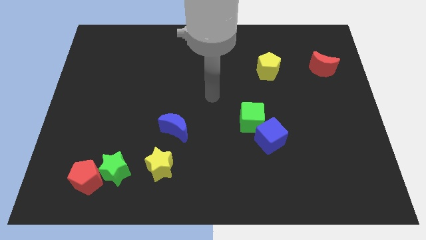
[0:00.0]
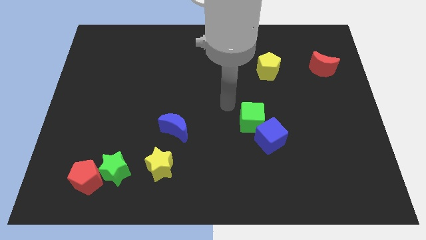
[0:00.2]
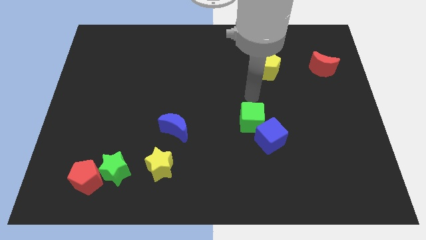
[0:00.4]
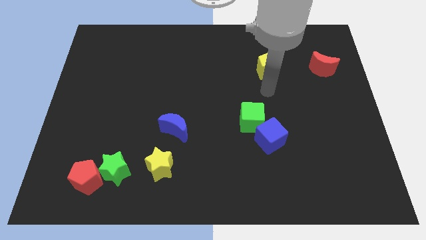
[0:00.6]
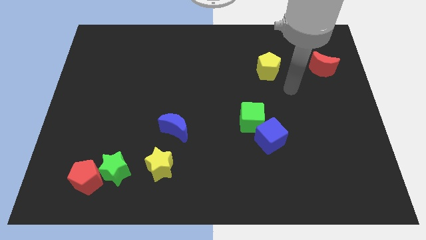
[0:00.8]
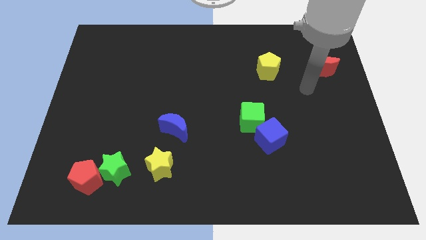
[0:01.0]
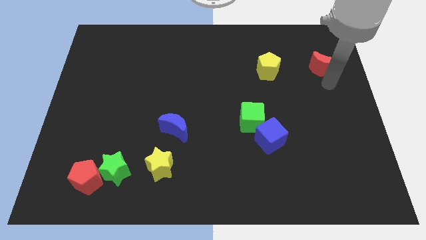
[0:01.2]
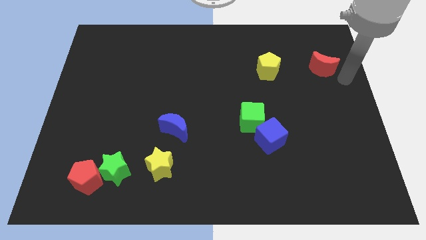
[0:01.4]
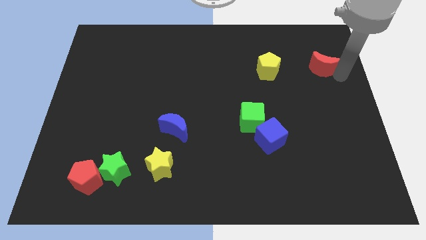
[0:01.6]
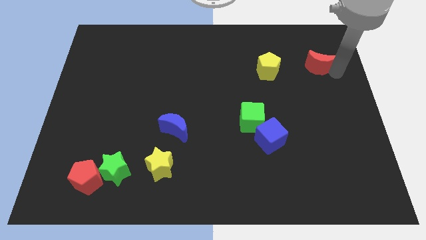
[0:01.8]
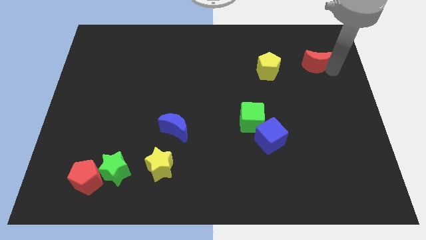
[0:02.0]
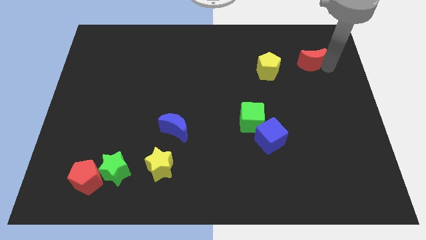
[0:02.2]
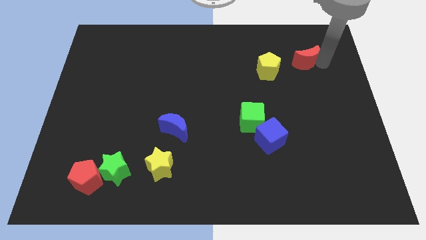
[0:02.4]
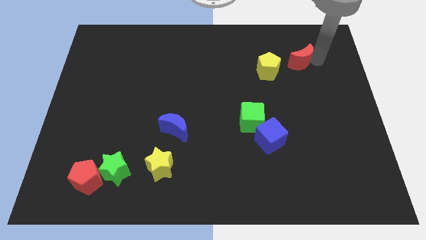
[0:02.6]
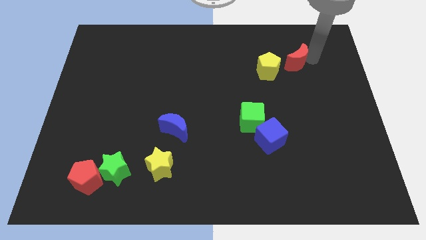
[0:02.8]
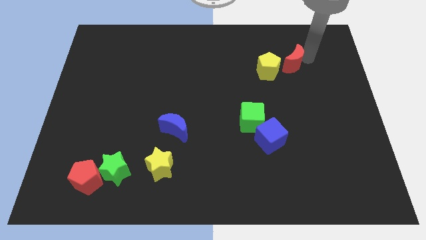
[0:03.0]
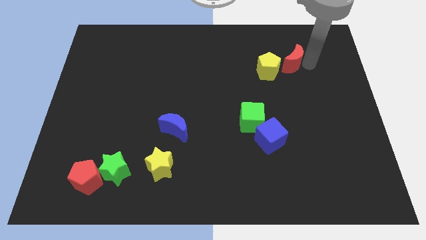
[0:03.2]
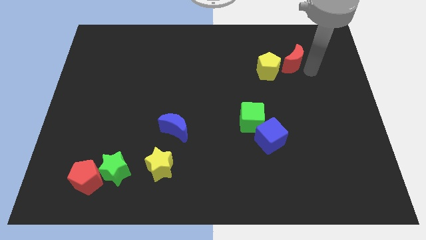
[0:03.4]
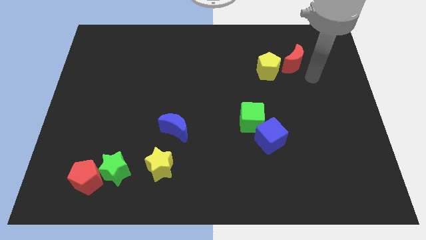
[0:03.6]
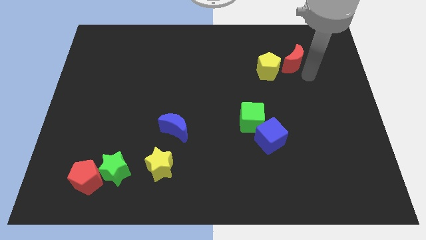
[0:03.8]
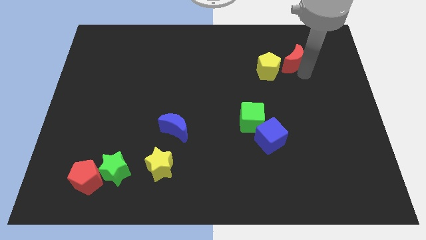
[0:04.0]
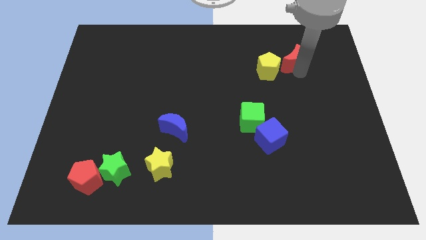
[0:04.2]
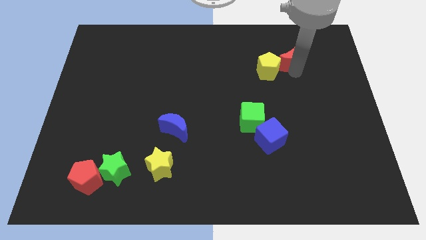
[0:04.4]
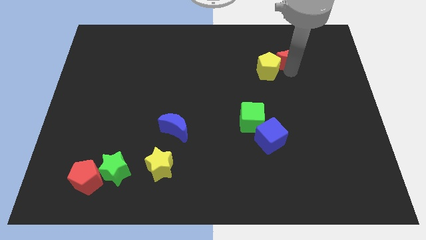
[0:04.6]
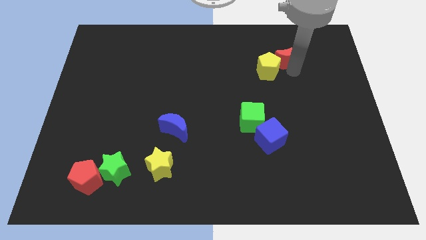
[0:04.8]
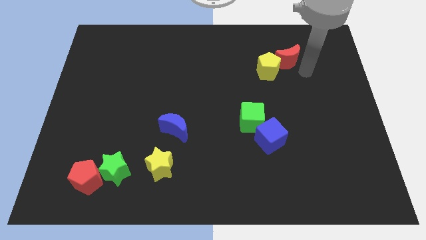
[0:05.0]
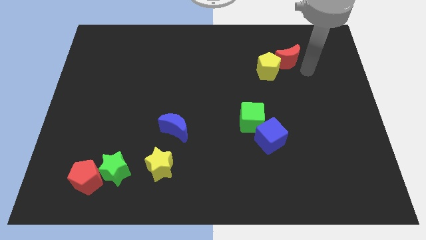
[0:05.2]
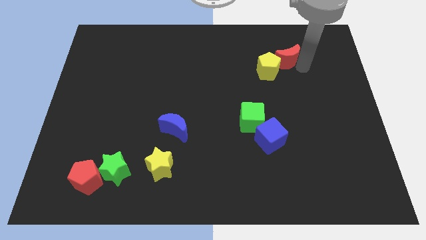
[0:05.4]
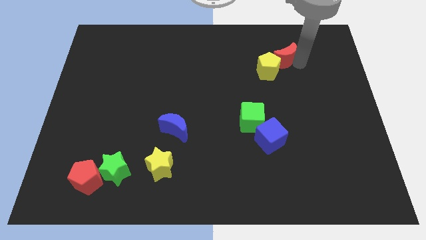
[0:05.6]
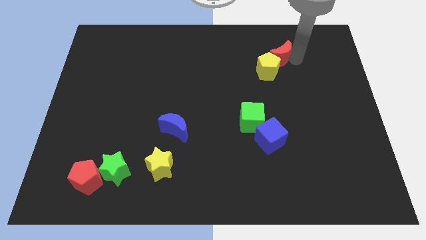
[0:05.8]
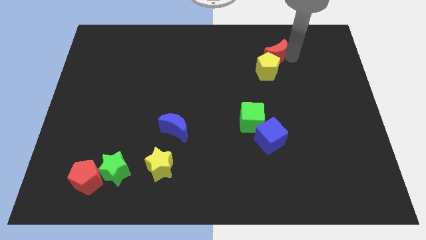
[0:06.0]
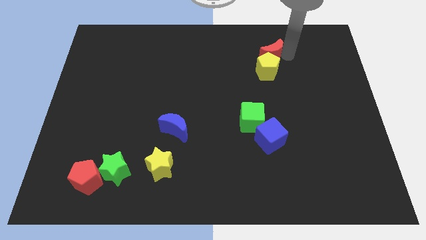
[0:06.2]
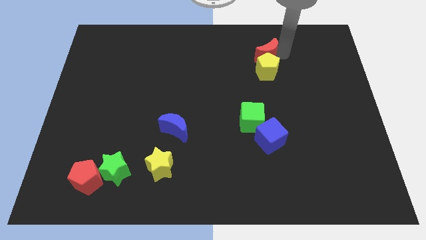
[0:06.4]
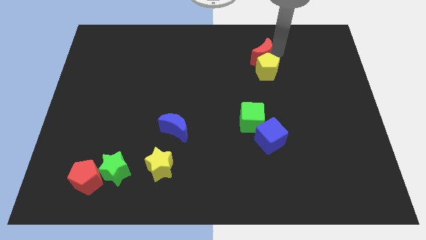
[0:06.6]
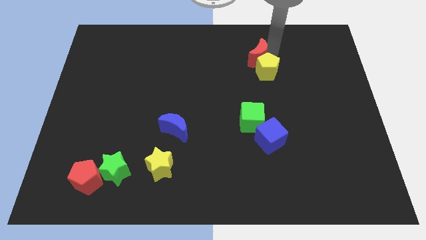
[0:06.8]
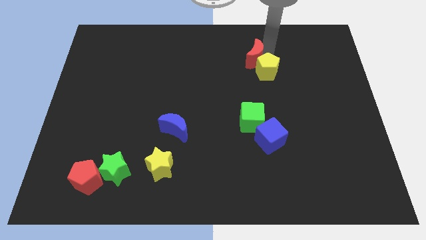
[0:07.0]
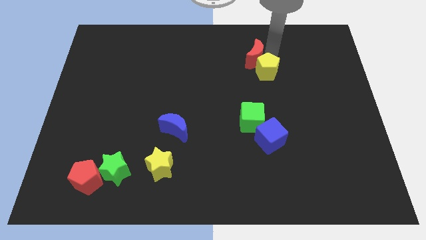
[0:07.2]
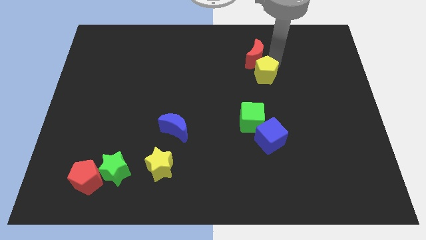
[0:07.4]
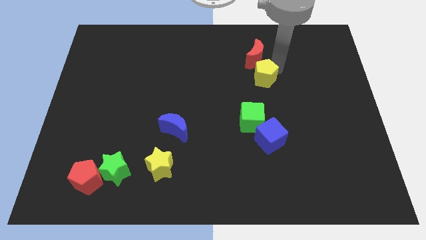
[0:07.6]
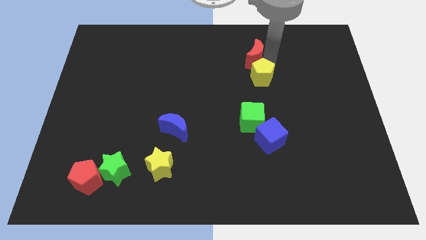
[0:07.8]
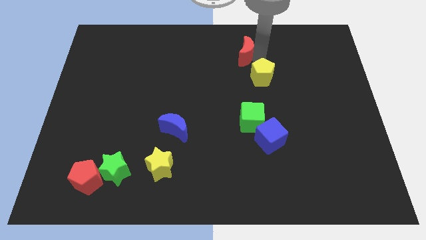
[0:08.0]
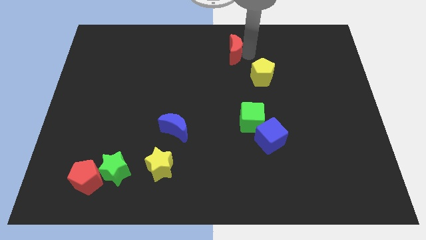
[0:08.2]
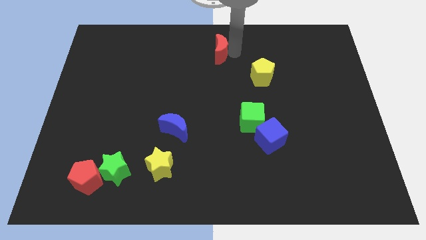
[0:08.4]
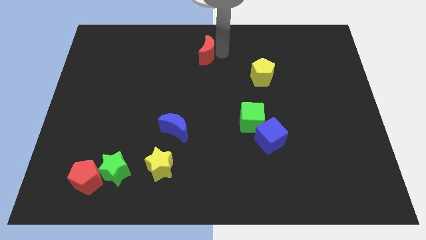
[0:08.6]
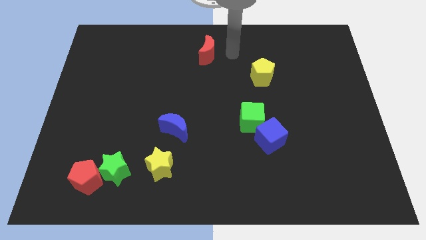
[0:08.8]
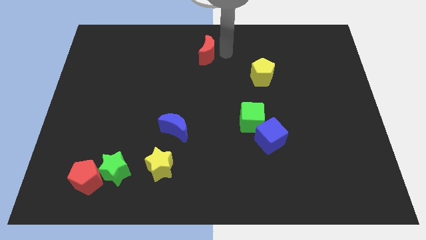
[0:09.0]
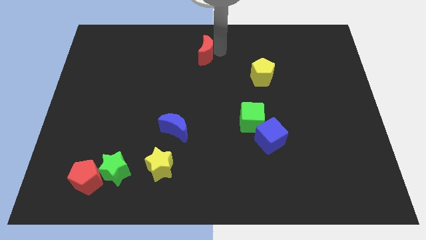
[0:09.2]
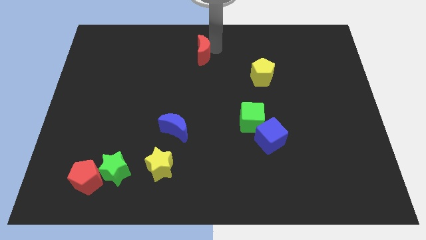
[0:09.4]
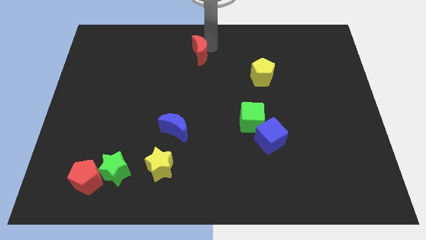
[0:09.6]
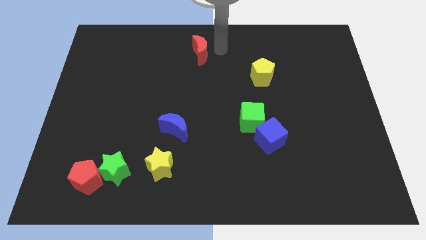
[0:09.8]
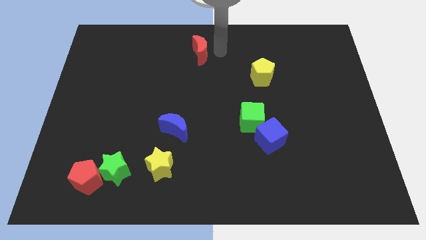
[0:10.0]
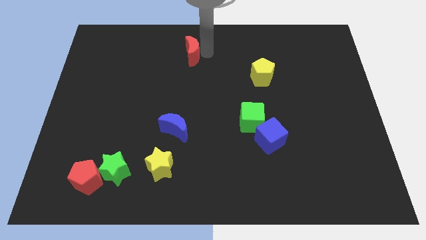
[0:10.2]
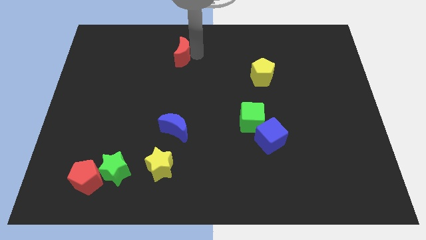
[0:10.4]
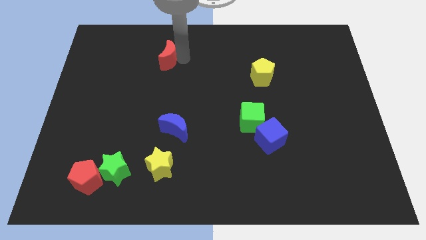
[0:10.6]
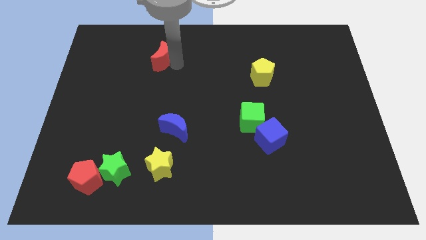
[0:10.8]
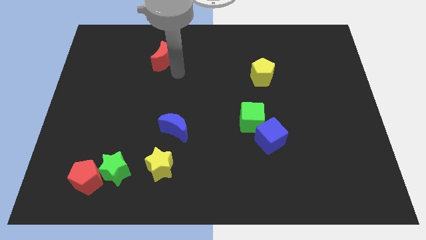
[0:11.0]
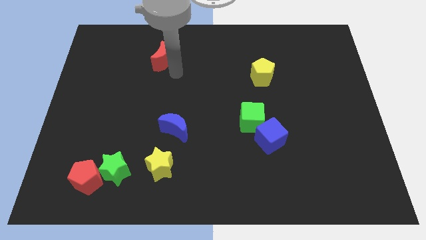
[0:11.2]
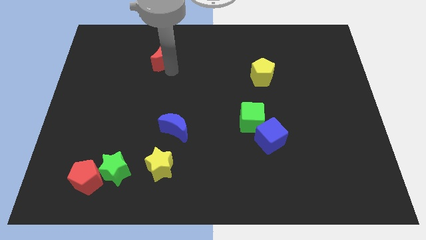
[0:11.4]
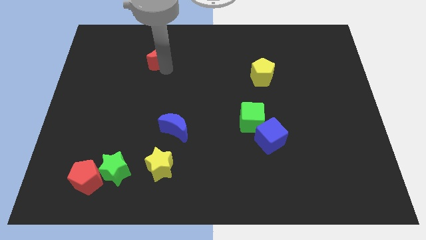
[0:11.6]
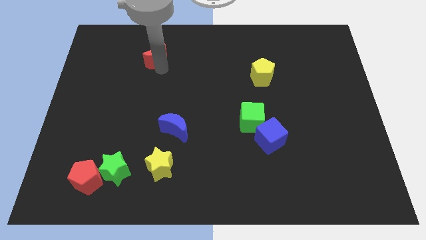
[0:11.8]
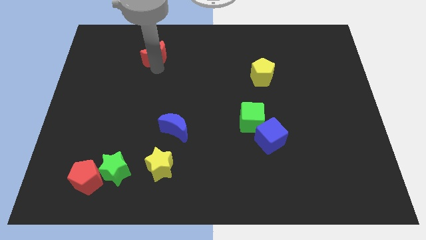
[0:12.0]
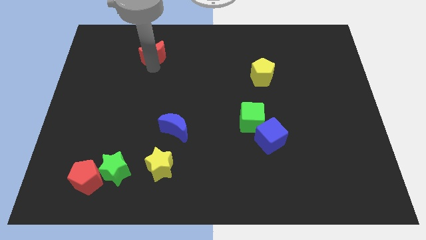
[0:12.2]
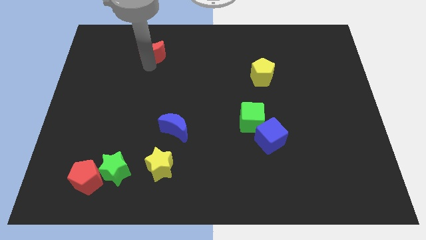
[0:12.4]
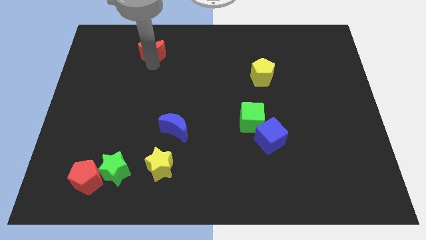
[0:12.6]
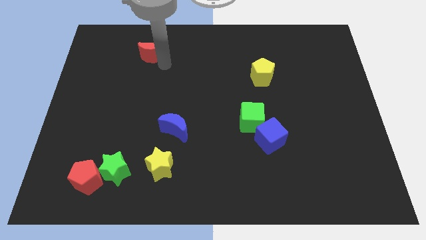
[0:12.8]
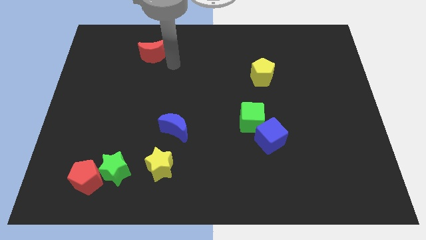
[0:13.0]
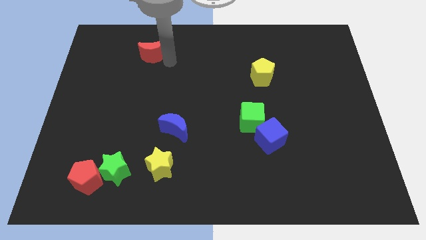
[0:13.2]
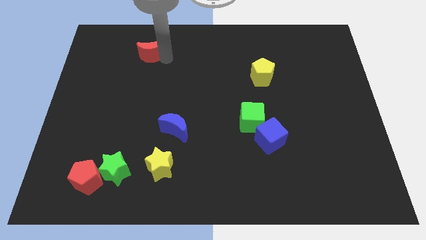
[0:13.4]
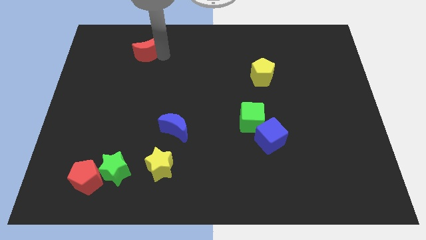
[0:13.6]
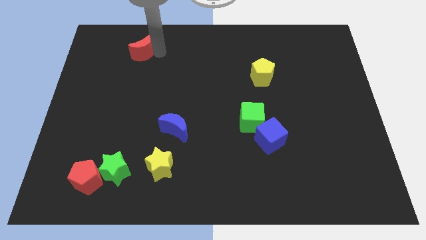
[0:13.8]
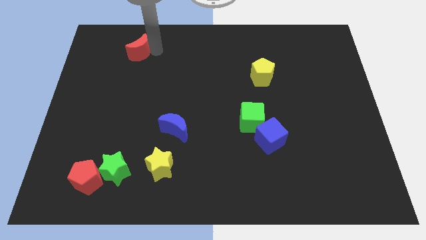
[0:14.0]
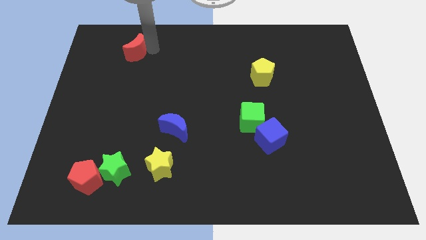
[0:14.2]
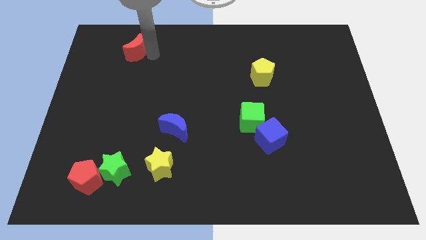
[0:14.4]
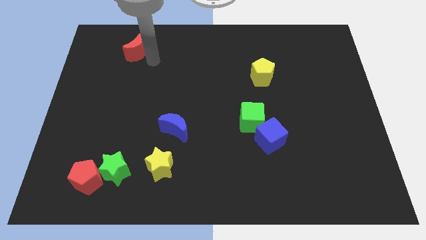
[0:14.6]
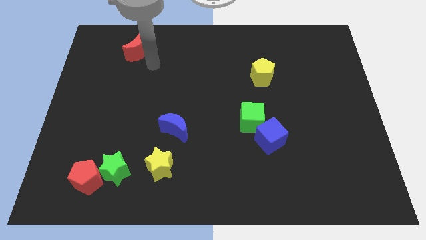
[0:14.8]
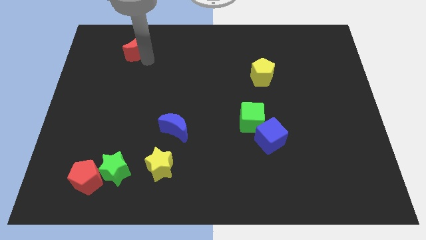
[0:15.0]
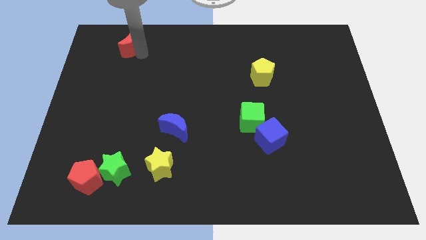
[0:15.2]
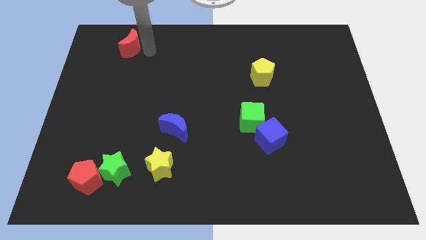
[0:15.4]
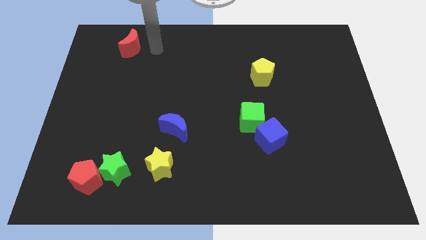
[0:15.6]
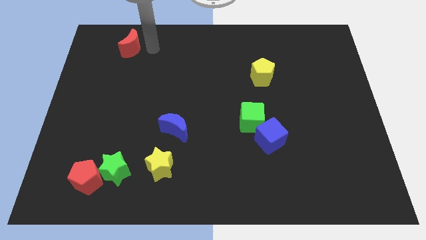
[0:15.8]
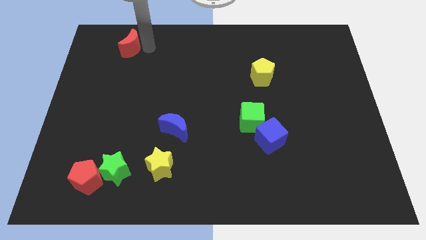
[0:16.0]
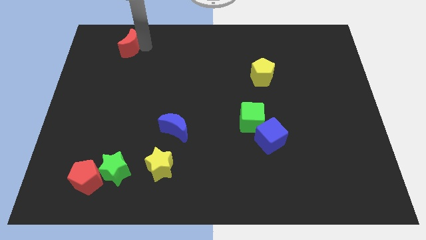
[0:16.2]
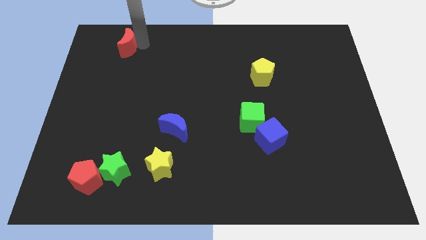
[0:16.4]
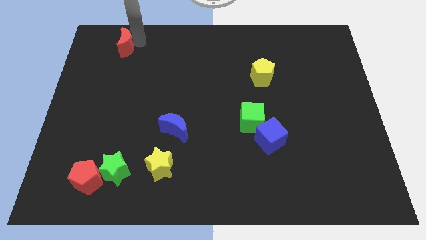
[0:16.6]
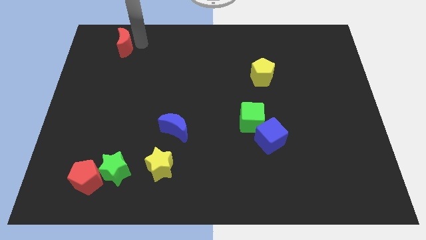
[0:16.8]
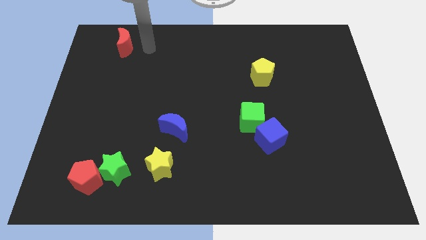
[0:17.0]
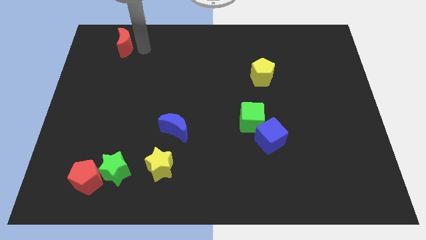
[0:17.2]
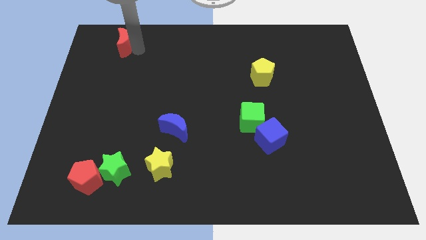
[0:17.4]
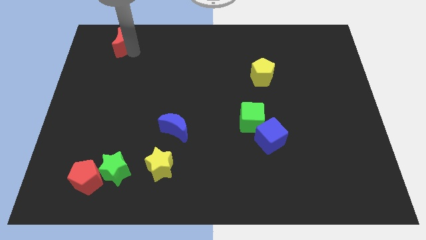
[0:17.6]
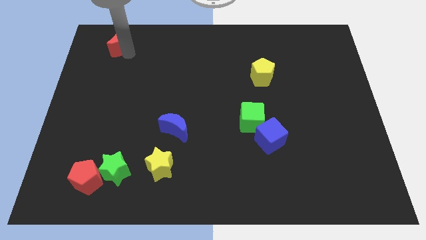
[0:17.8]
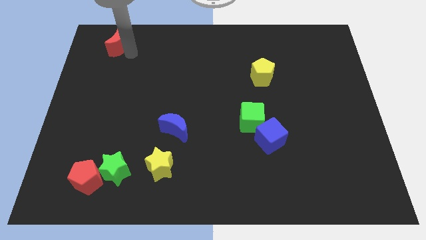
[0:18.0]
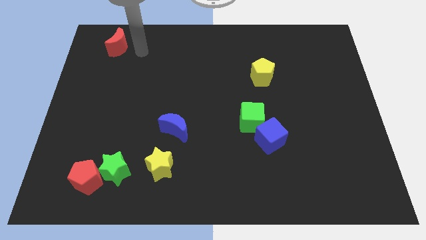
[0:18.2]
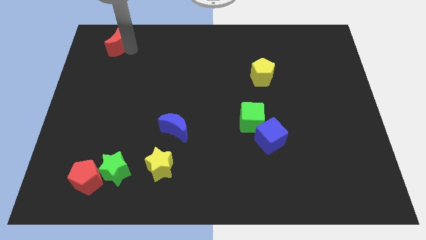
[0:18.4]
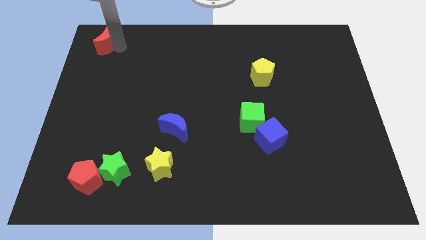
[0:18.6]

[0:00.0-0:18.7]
put the red moon to the top left
